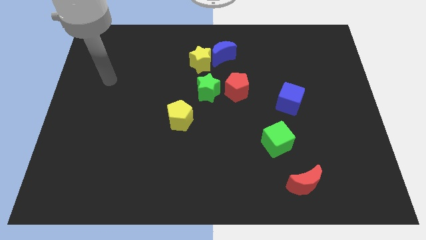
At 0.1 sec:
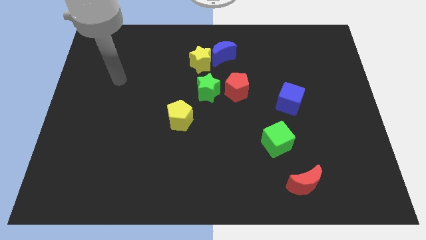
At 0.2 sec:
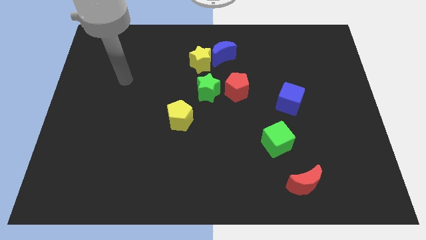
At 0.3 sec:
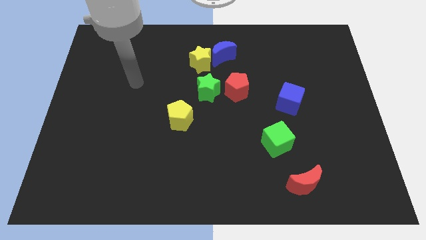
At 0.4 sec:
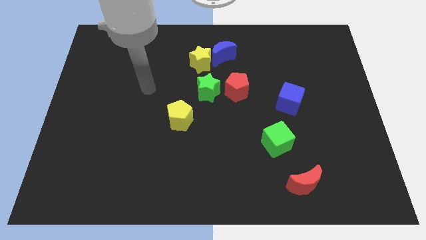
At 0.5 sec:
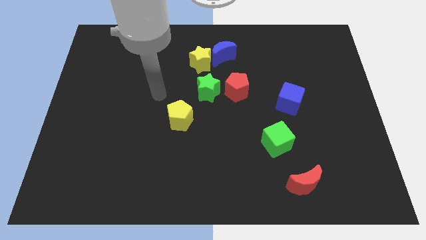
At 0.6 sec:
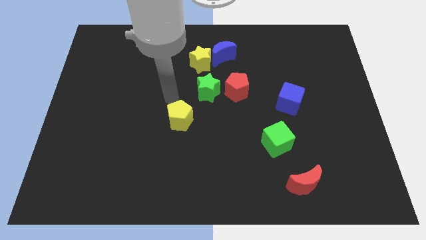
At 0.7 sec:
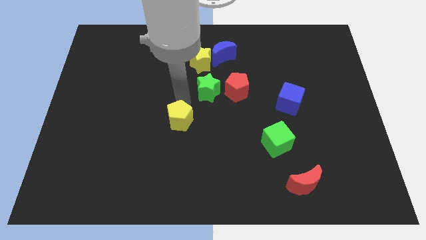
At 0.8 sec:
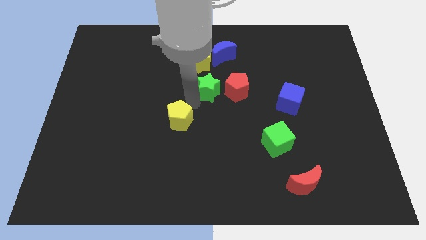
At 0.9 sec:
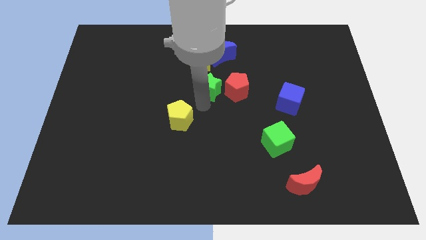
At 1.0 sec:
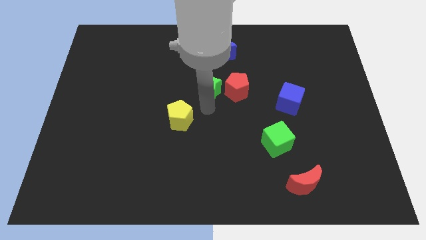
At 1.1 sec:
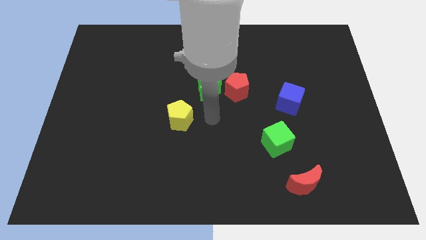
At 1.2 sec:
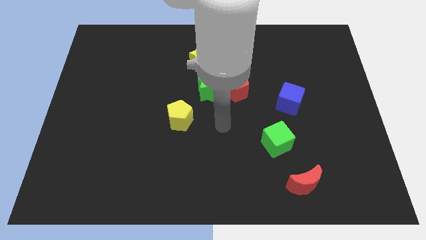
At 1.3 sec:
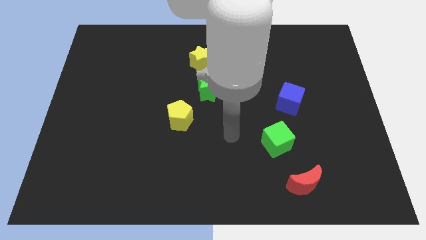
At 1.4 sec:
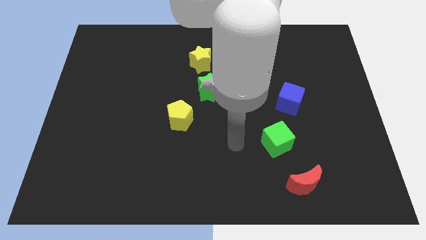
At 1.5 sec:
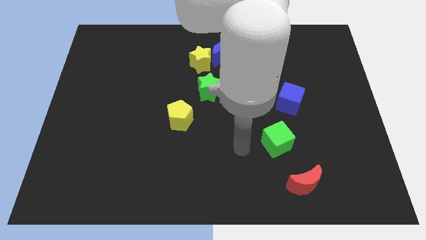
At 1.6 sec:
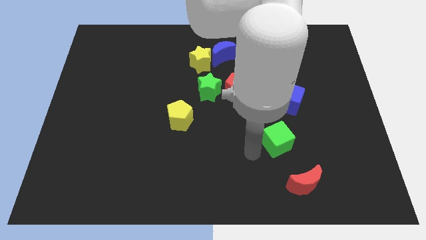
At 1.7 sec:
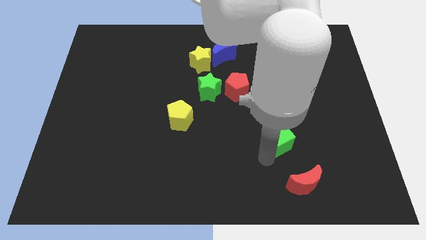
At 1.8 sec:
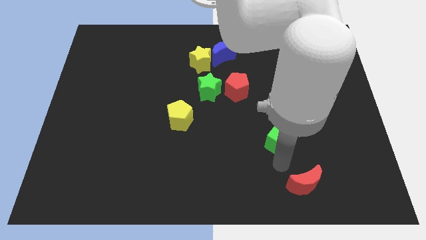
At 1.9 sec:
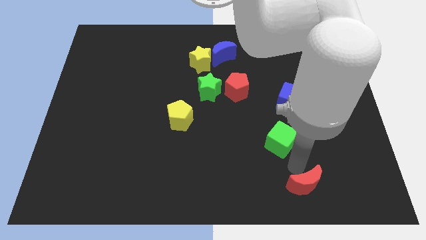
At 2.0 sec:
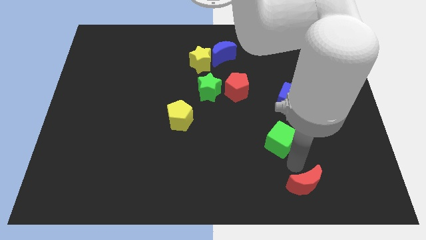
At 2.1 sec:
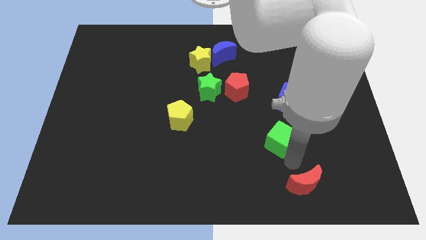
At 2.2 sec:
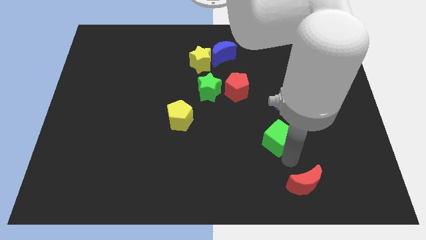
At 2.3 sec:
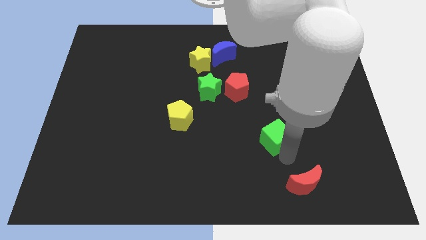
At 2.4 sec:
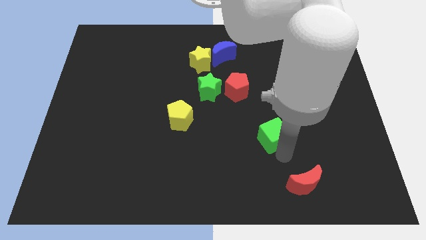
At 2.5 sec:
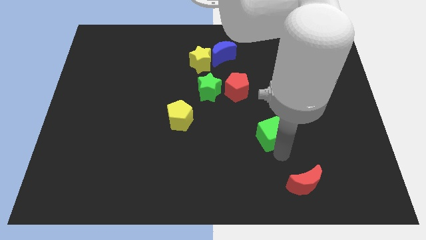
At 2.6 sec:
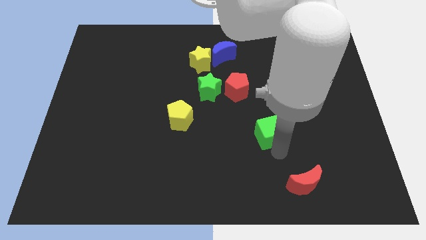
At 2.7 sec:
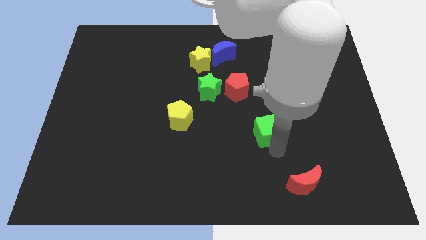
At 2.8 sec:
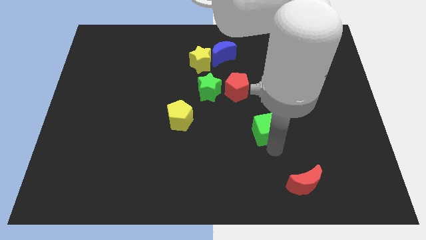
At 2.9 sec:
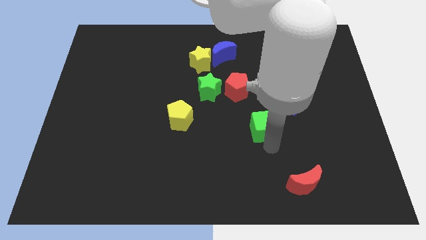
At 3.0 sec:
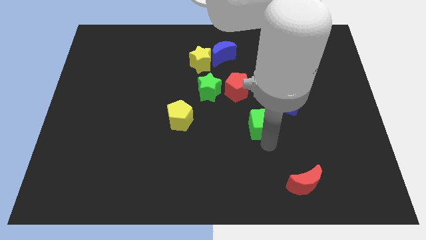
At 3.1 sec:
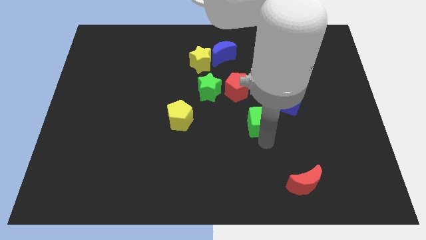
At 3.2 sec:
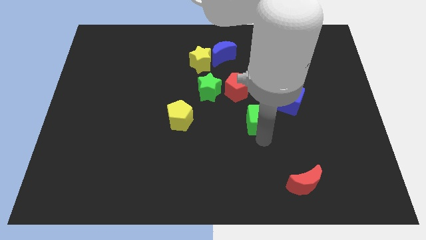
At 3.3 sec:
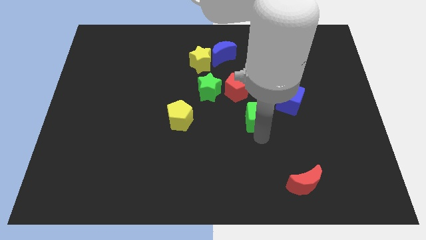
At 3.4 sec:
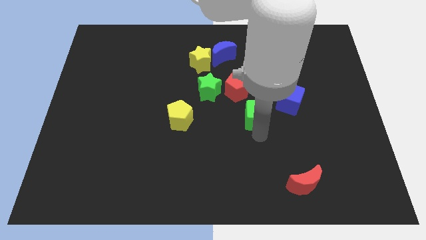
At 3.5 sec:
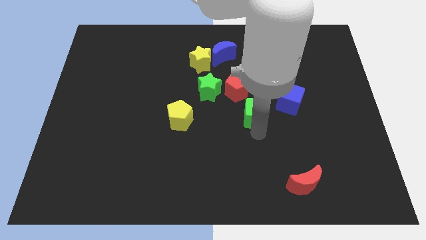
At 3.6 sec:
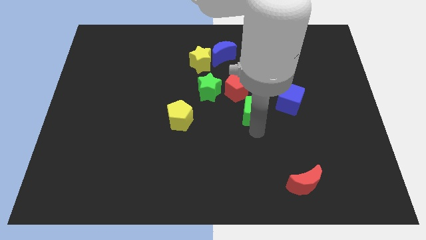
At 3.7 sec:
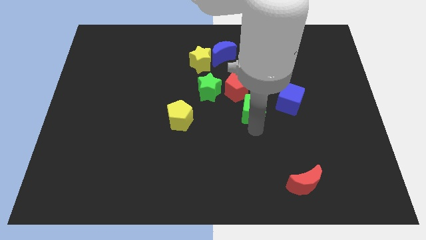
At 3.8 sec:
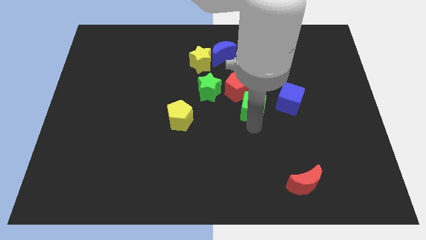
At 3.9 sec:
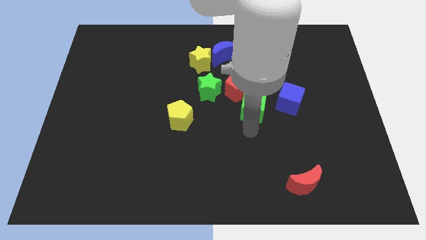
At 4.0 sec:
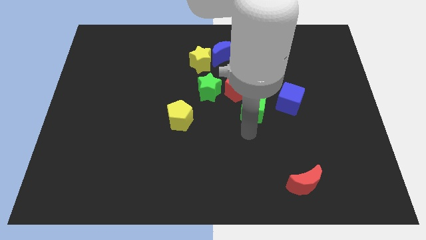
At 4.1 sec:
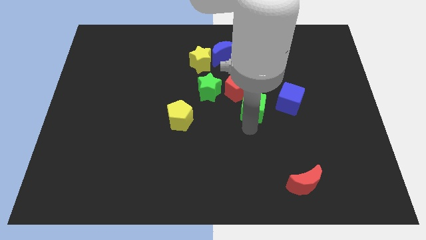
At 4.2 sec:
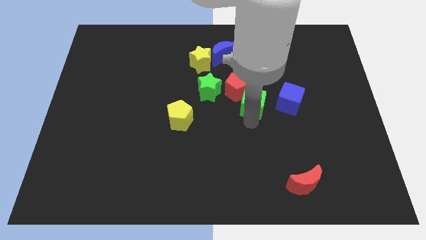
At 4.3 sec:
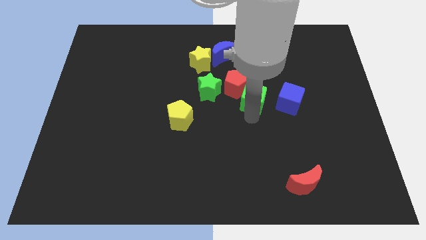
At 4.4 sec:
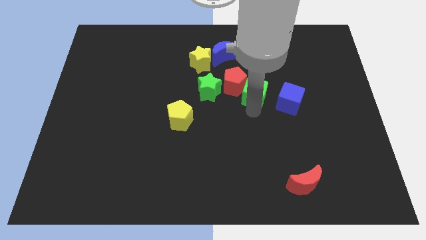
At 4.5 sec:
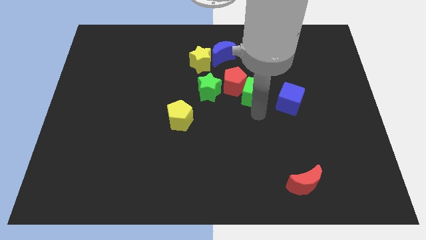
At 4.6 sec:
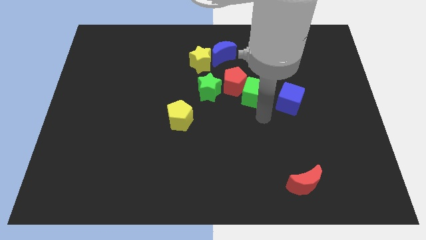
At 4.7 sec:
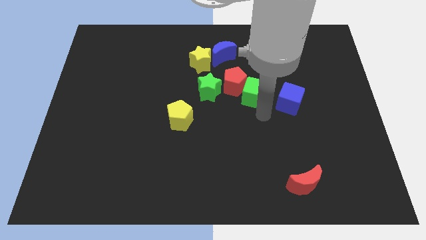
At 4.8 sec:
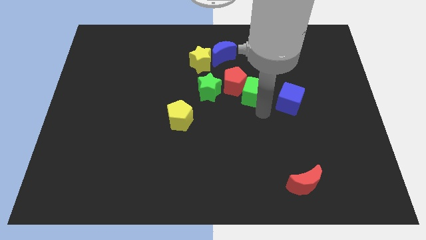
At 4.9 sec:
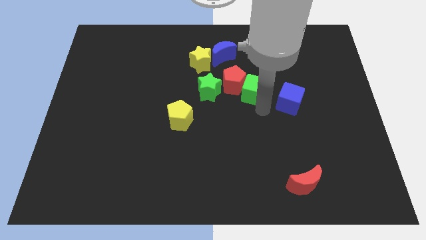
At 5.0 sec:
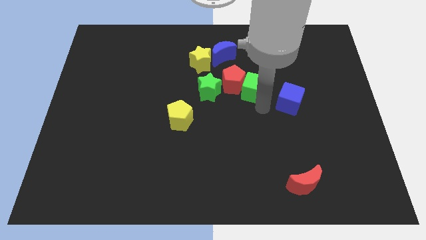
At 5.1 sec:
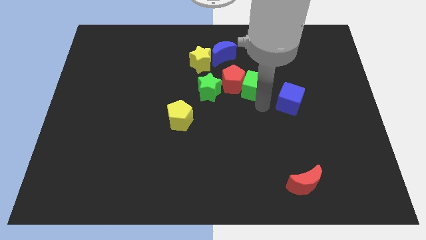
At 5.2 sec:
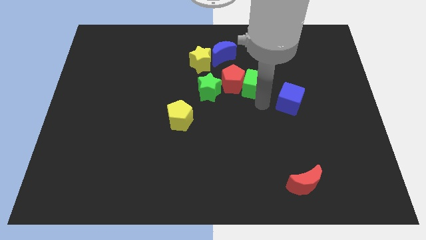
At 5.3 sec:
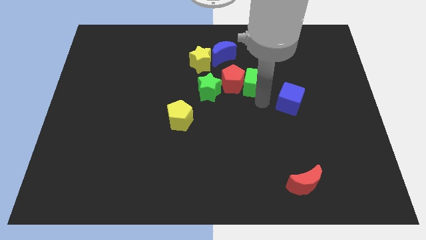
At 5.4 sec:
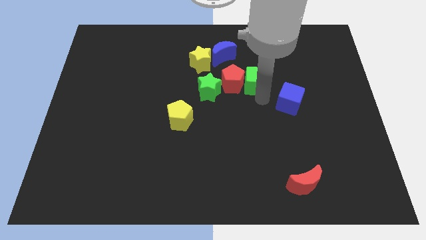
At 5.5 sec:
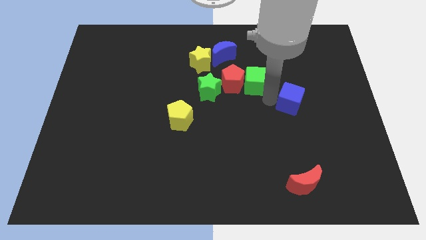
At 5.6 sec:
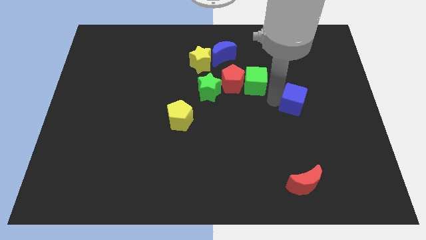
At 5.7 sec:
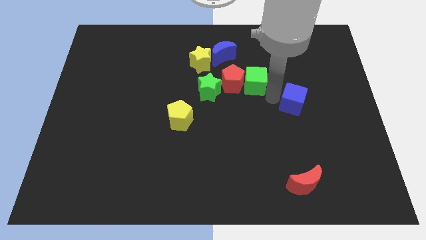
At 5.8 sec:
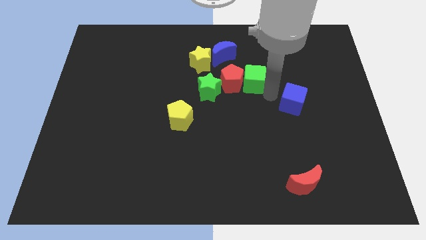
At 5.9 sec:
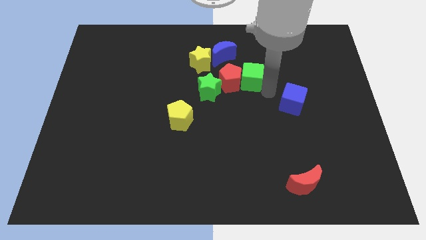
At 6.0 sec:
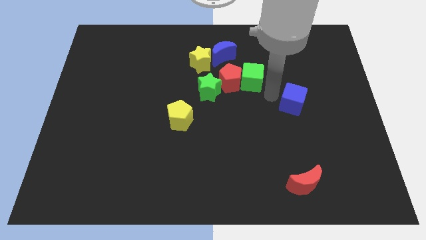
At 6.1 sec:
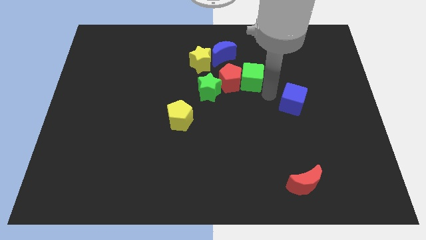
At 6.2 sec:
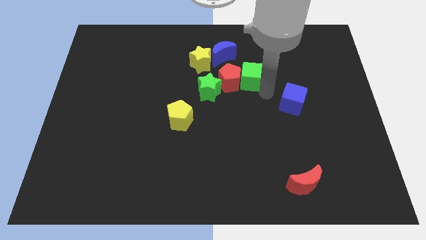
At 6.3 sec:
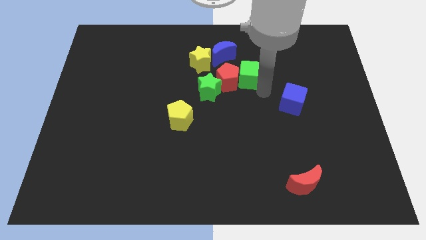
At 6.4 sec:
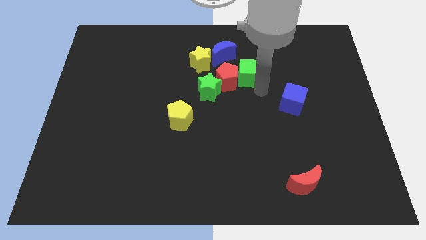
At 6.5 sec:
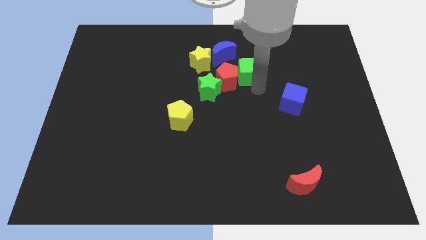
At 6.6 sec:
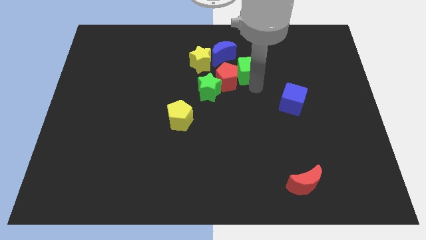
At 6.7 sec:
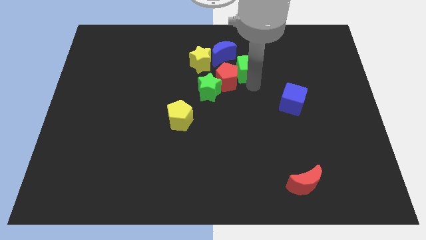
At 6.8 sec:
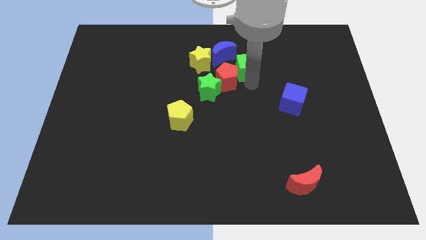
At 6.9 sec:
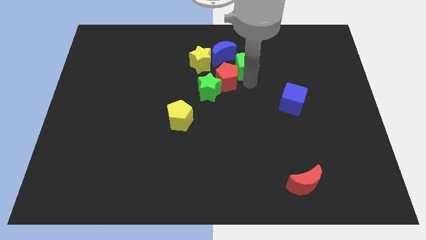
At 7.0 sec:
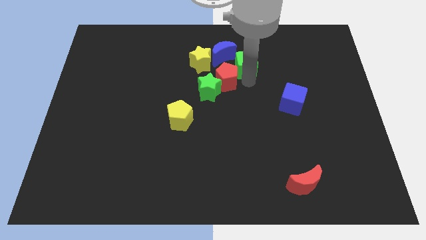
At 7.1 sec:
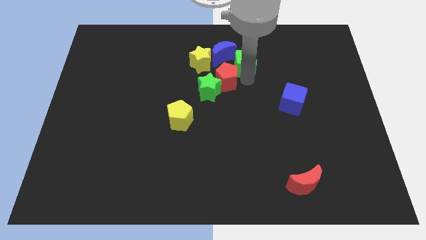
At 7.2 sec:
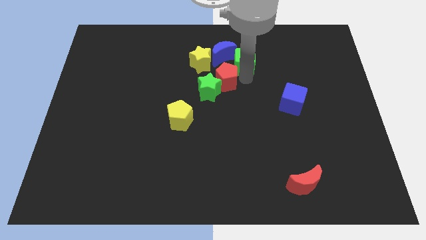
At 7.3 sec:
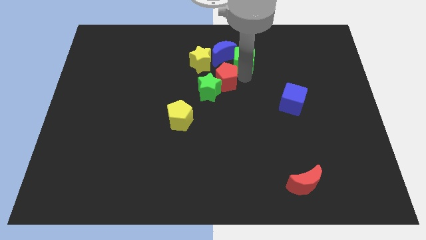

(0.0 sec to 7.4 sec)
push the green cube close to the blue moon
